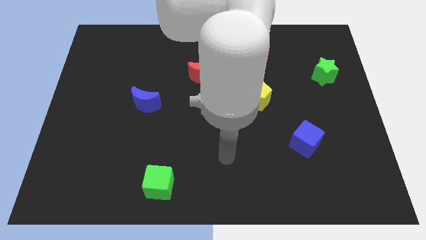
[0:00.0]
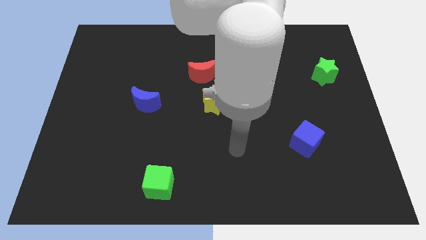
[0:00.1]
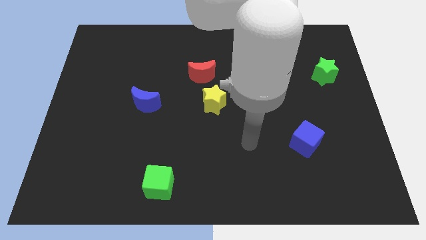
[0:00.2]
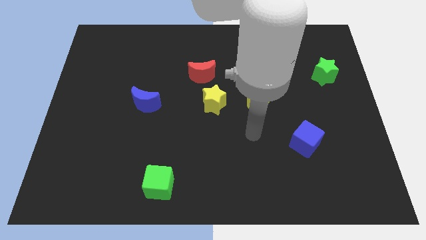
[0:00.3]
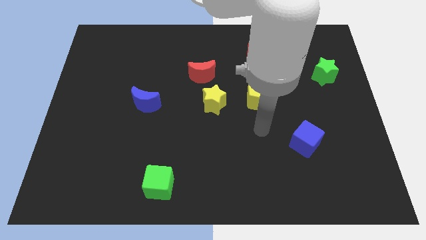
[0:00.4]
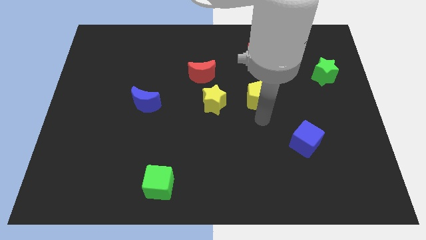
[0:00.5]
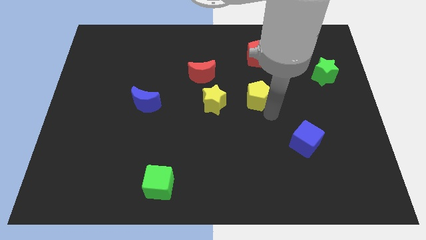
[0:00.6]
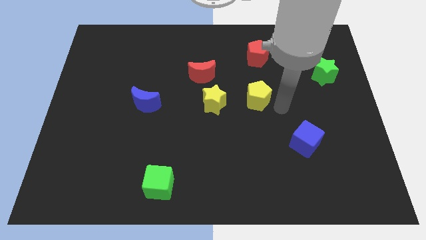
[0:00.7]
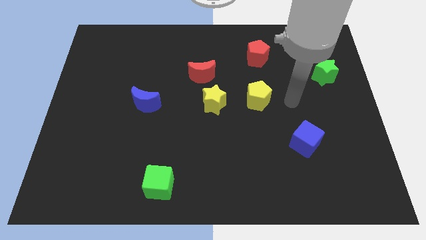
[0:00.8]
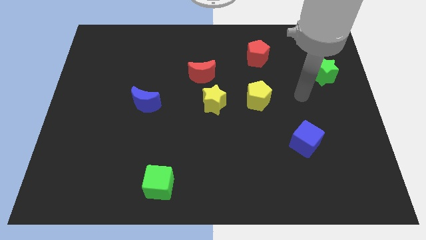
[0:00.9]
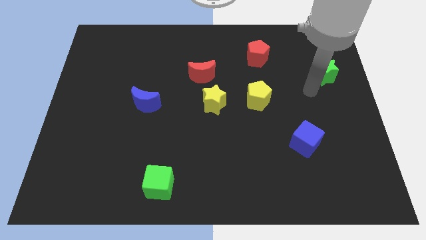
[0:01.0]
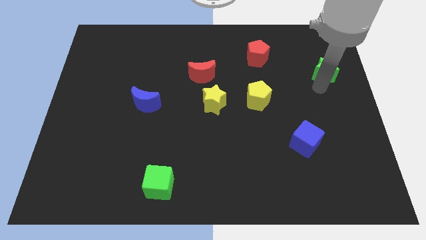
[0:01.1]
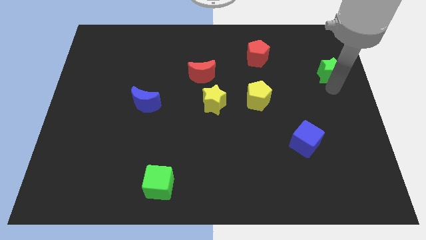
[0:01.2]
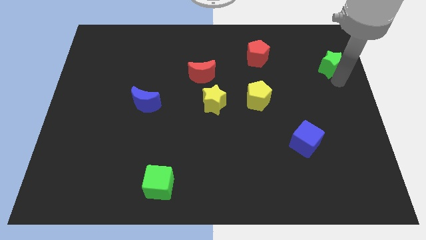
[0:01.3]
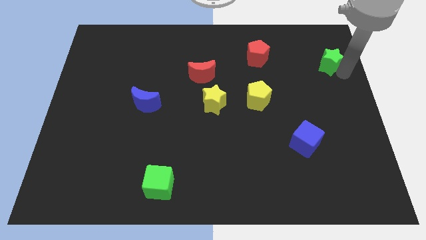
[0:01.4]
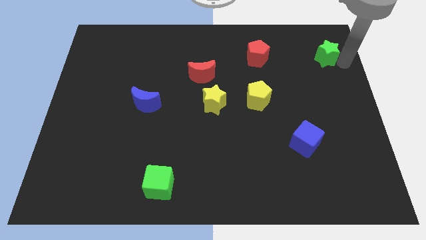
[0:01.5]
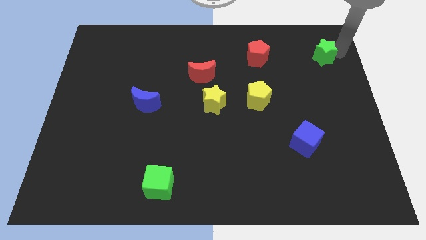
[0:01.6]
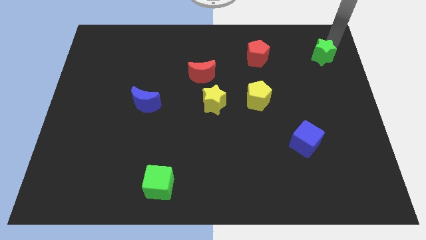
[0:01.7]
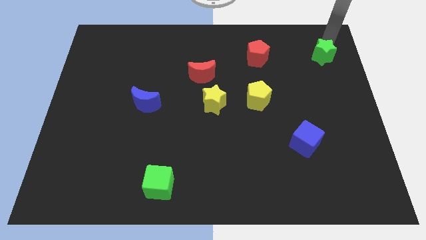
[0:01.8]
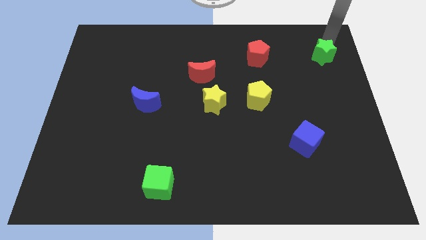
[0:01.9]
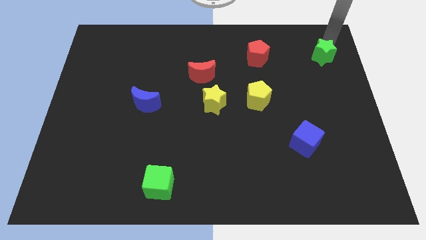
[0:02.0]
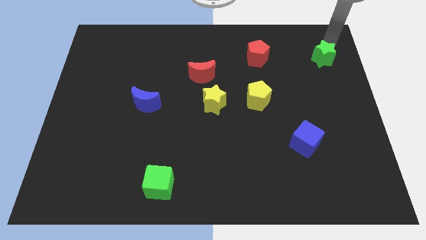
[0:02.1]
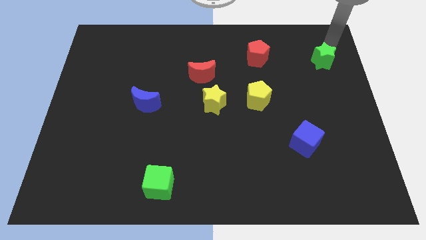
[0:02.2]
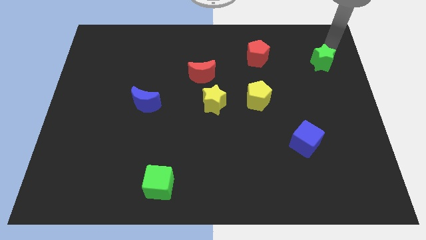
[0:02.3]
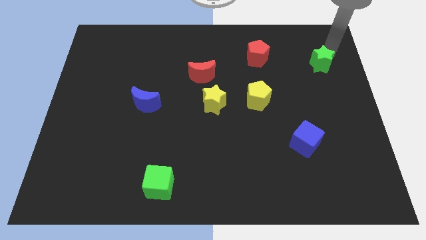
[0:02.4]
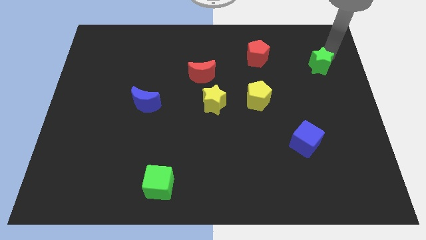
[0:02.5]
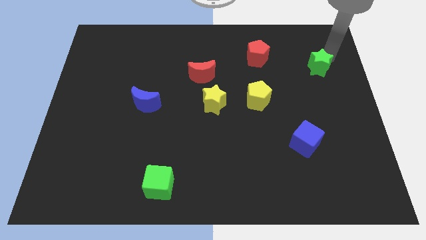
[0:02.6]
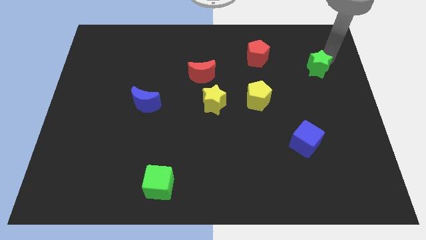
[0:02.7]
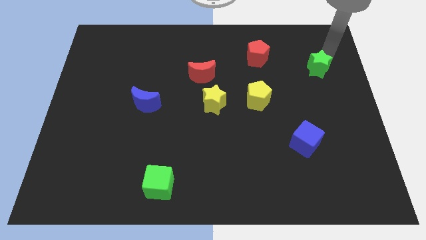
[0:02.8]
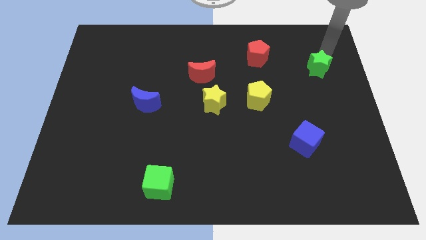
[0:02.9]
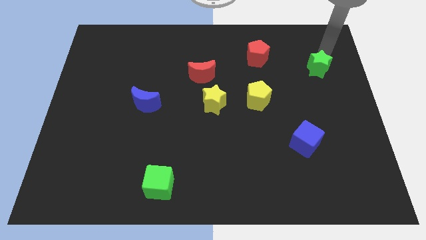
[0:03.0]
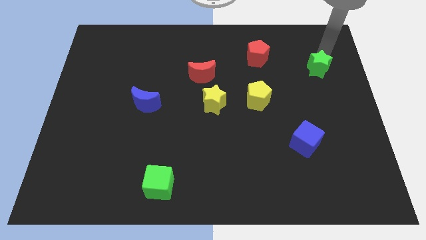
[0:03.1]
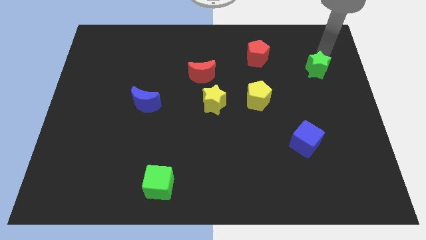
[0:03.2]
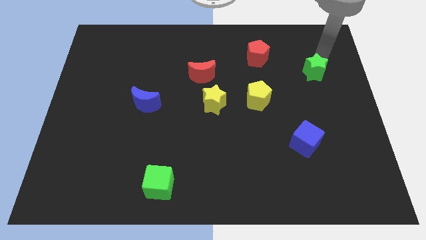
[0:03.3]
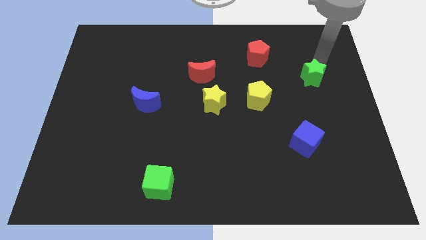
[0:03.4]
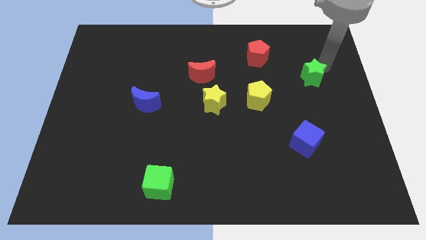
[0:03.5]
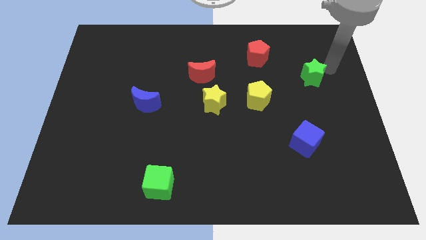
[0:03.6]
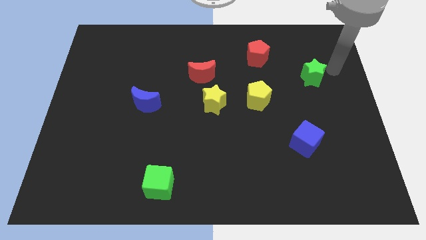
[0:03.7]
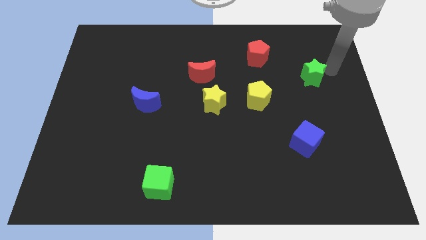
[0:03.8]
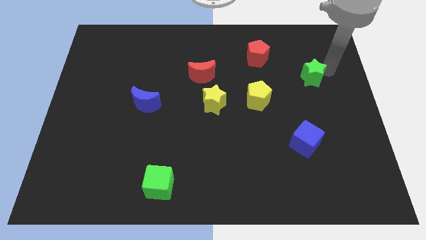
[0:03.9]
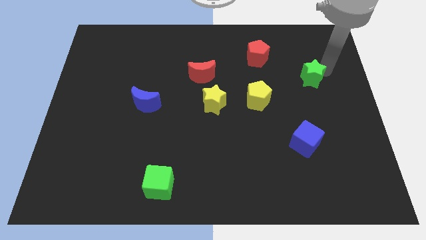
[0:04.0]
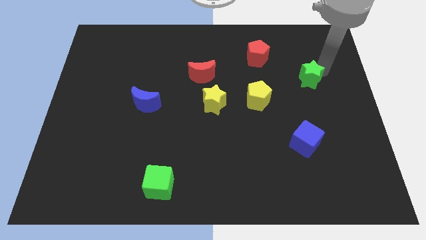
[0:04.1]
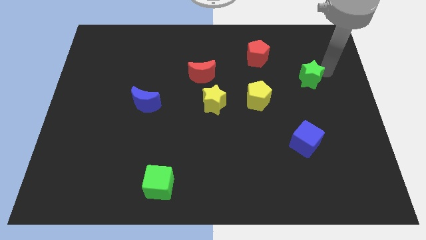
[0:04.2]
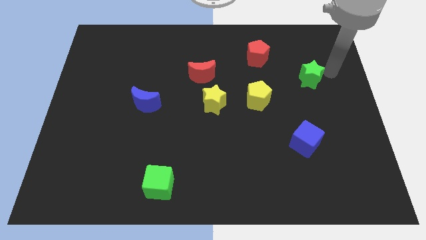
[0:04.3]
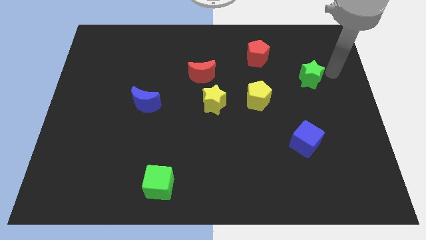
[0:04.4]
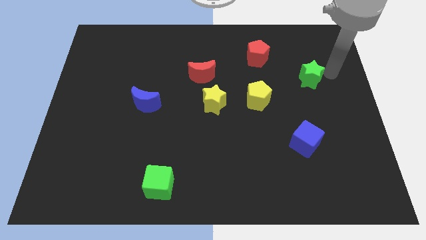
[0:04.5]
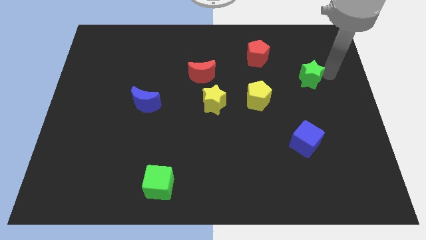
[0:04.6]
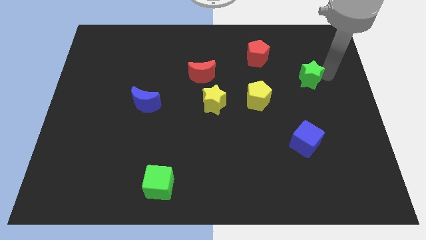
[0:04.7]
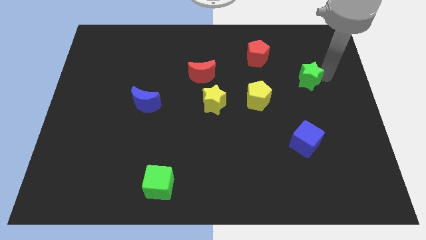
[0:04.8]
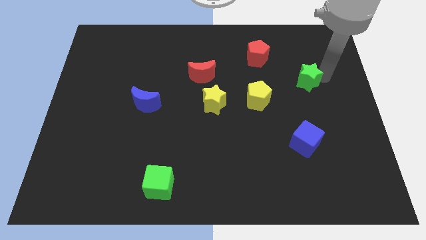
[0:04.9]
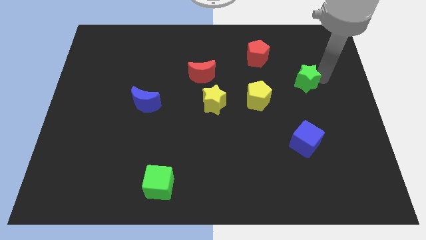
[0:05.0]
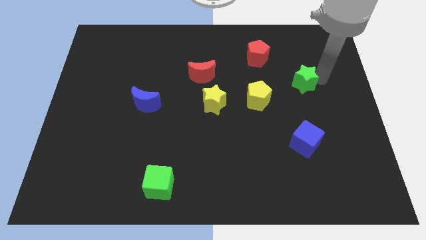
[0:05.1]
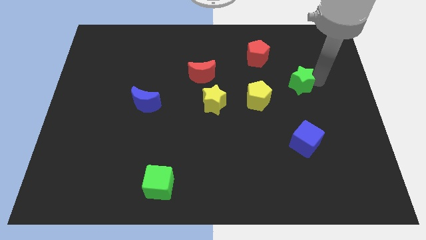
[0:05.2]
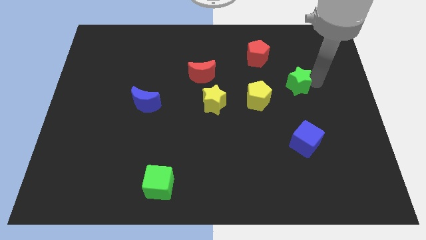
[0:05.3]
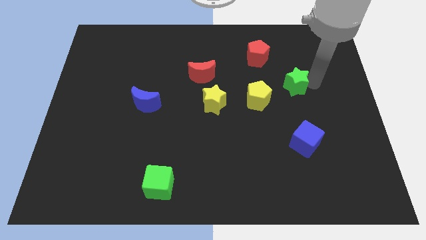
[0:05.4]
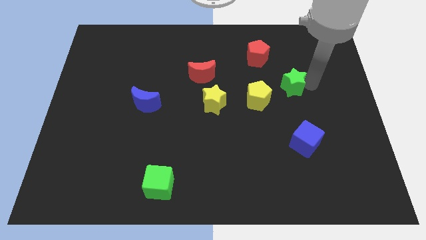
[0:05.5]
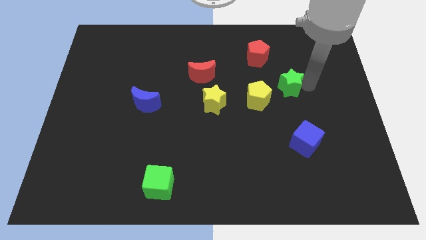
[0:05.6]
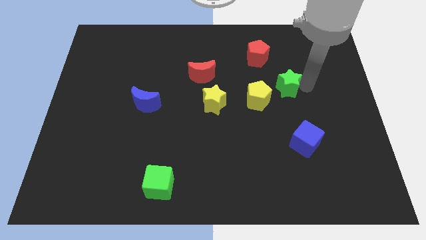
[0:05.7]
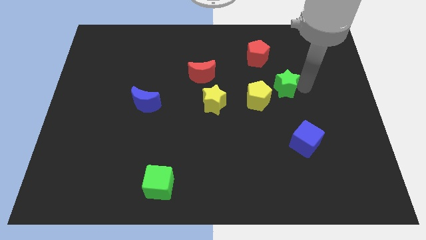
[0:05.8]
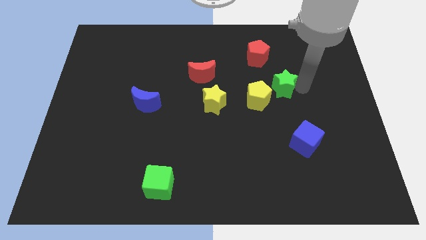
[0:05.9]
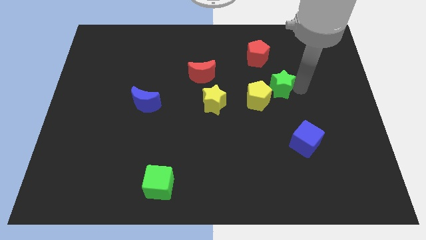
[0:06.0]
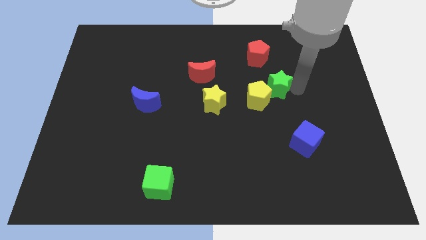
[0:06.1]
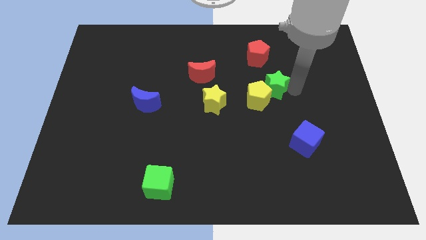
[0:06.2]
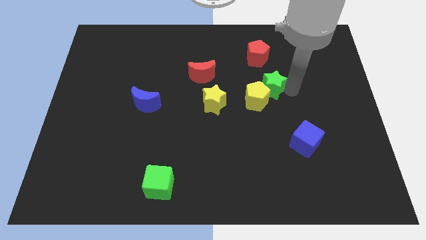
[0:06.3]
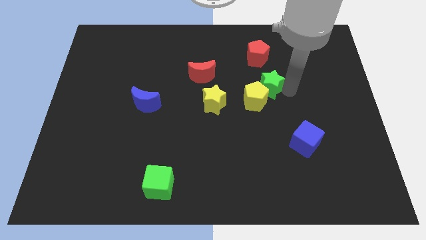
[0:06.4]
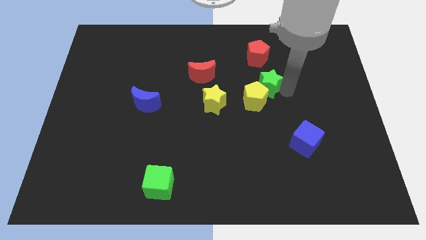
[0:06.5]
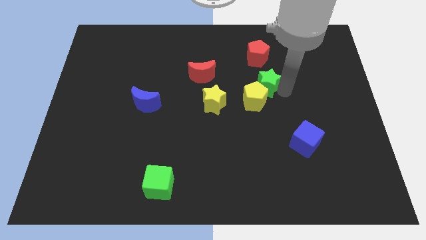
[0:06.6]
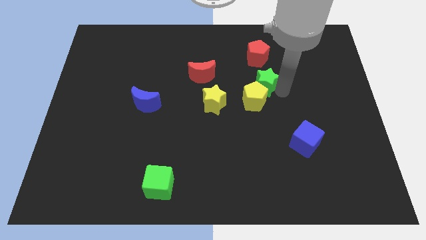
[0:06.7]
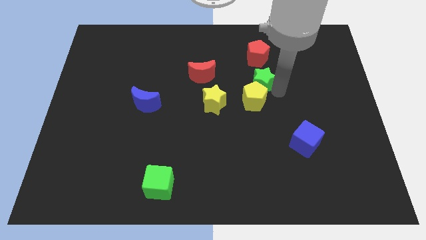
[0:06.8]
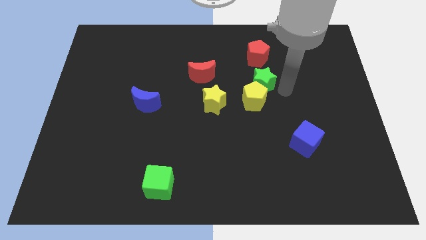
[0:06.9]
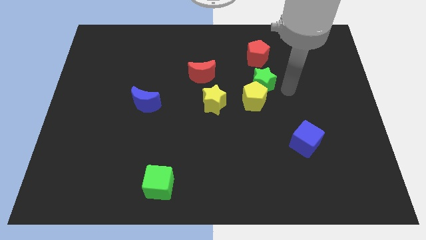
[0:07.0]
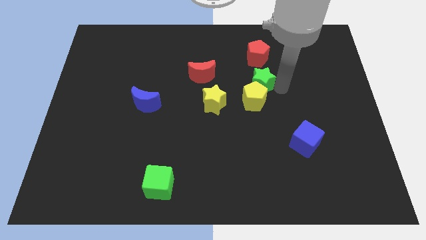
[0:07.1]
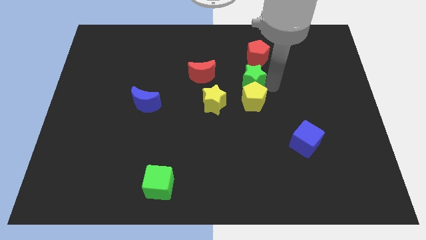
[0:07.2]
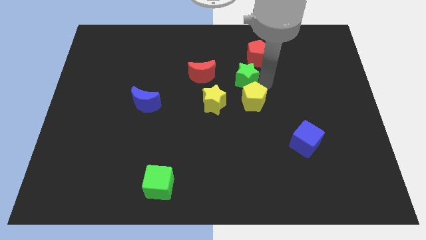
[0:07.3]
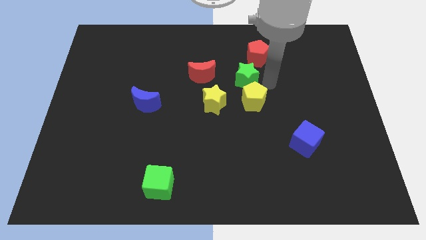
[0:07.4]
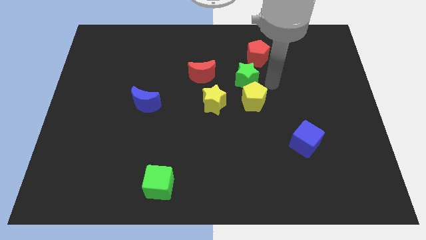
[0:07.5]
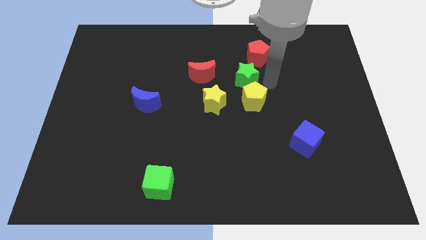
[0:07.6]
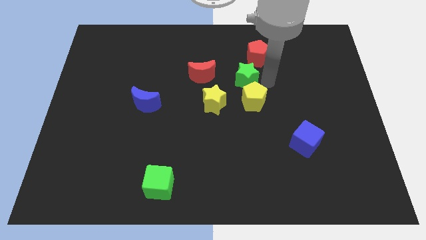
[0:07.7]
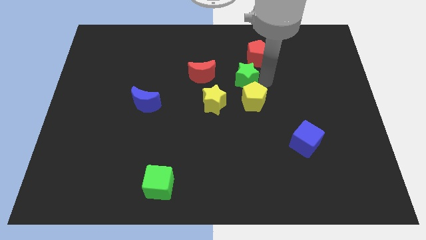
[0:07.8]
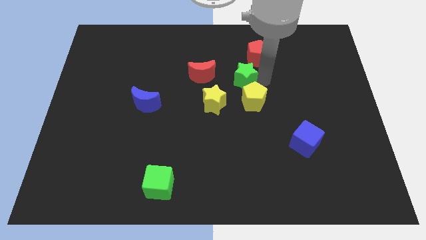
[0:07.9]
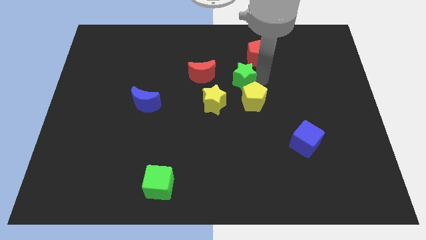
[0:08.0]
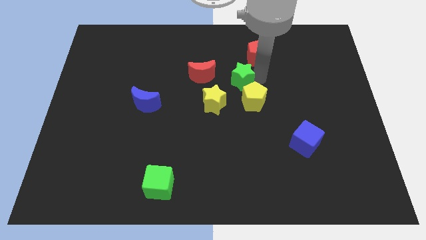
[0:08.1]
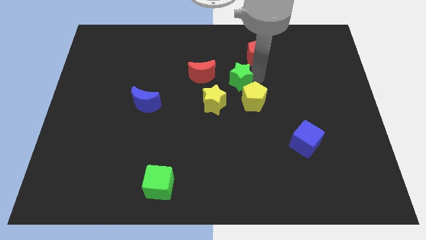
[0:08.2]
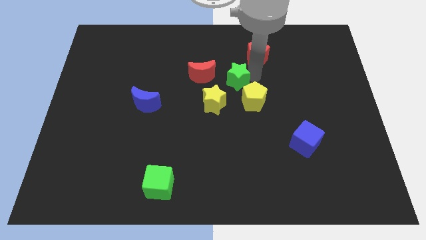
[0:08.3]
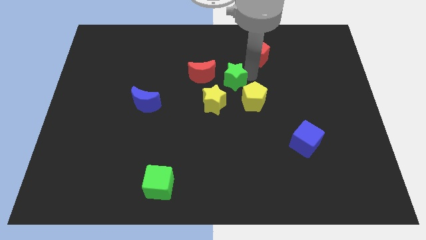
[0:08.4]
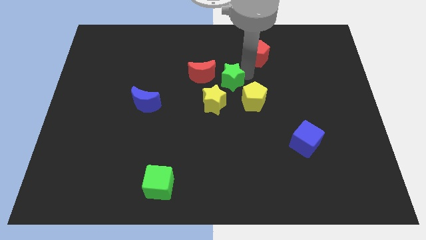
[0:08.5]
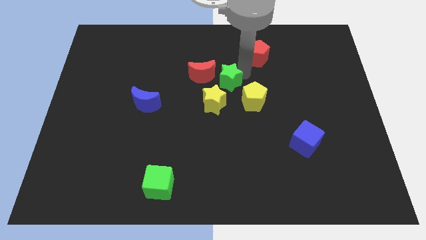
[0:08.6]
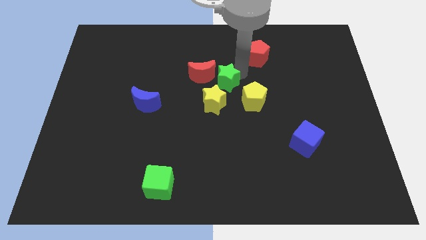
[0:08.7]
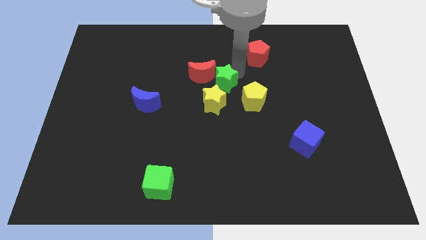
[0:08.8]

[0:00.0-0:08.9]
slide the green star towards the red moon
